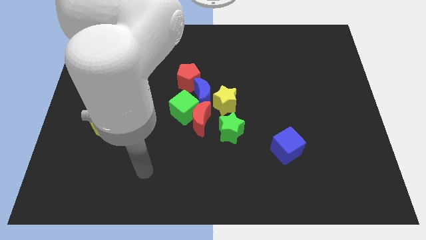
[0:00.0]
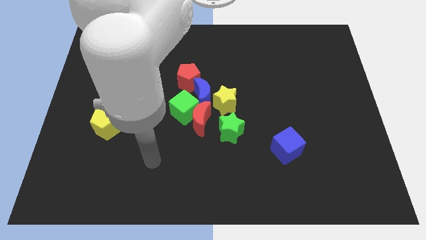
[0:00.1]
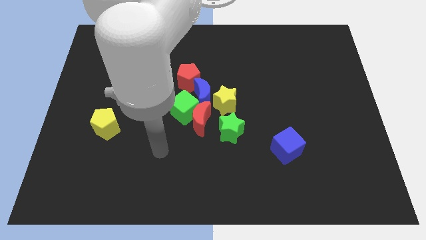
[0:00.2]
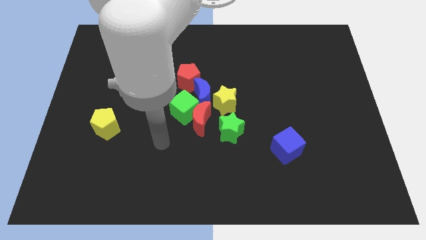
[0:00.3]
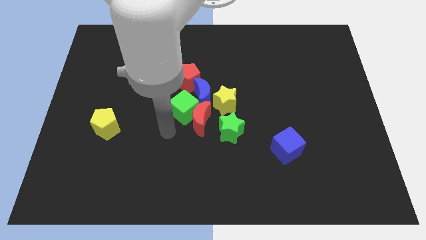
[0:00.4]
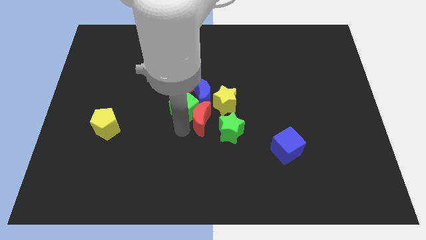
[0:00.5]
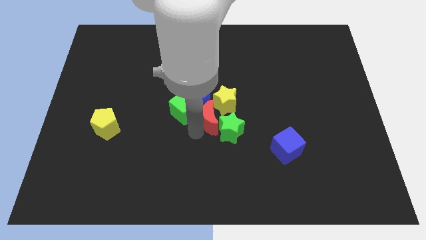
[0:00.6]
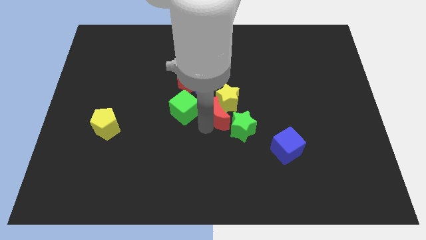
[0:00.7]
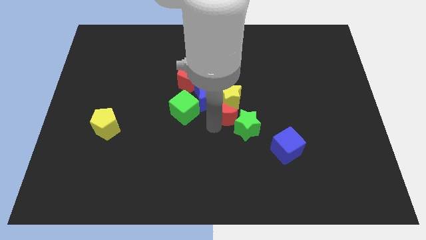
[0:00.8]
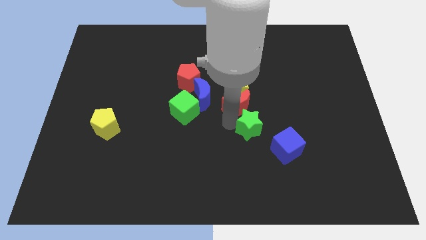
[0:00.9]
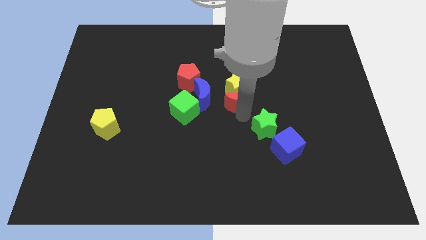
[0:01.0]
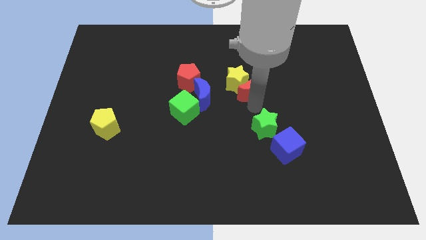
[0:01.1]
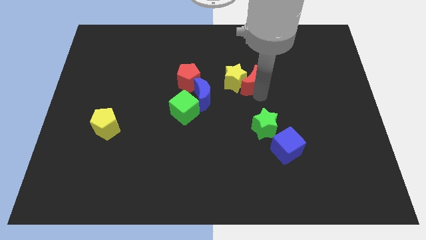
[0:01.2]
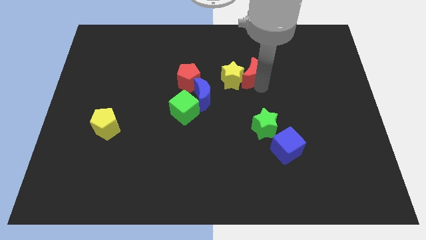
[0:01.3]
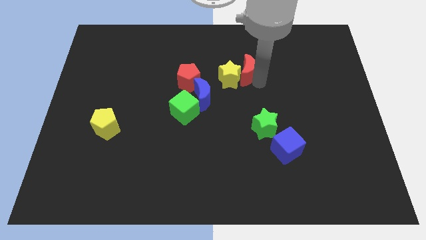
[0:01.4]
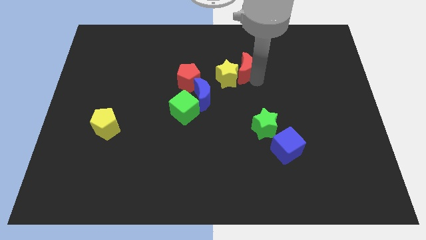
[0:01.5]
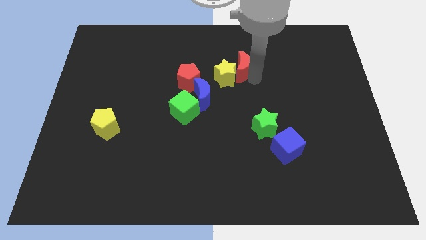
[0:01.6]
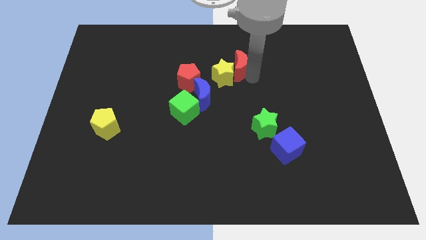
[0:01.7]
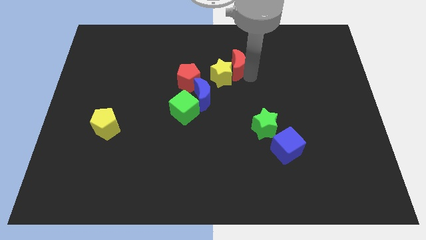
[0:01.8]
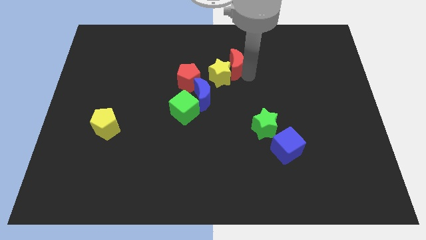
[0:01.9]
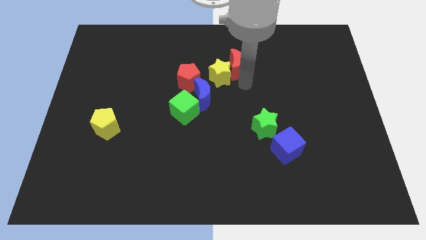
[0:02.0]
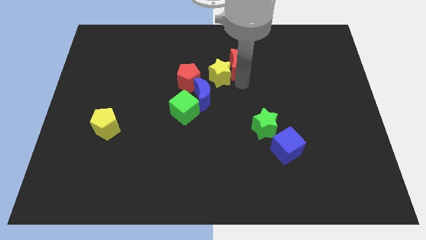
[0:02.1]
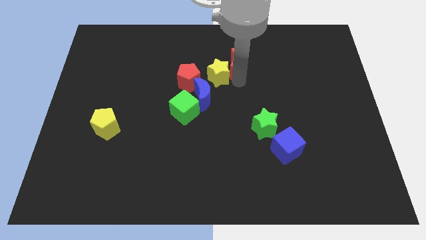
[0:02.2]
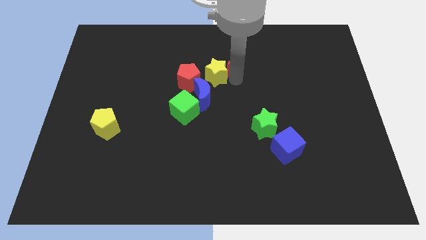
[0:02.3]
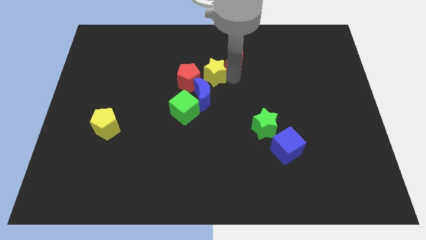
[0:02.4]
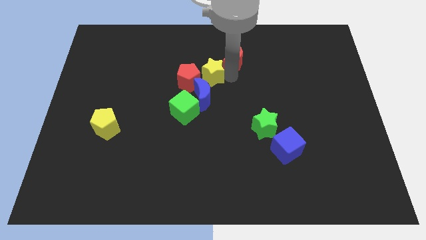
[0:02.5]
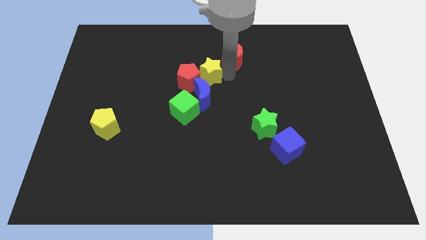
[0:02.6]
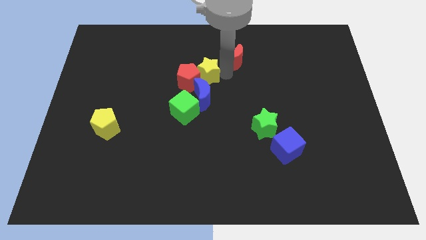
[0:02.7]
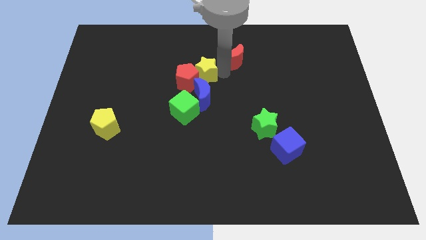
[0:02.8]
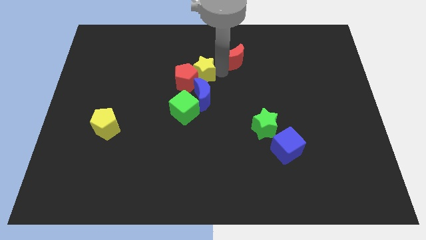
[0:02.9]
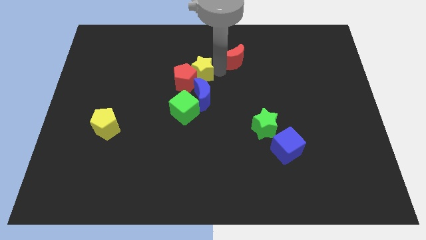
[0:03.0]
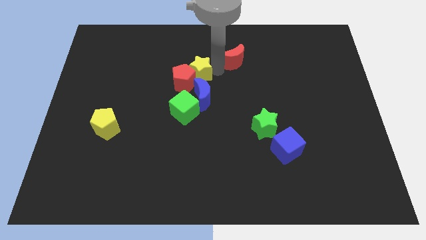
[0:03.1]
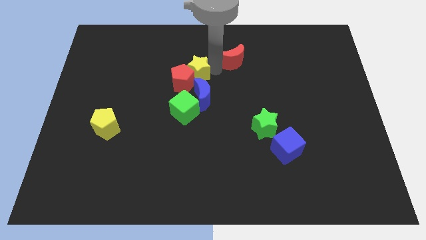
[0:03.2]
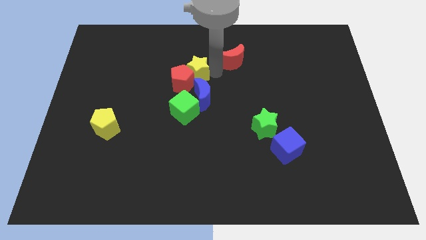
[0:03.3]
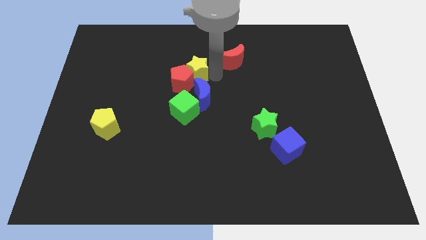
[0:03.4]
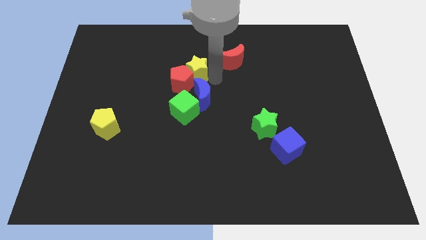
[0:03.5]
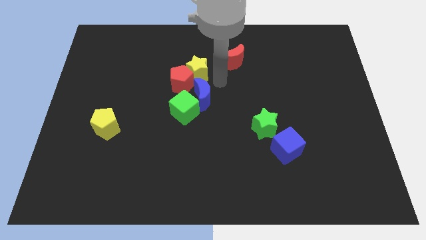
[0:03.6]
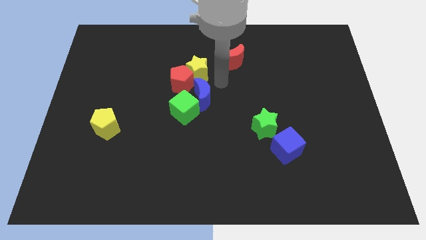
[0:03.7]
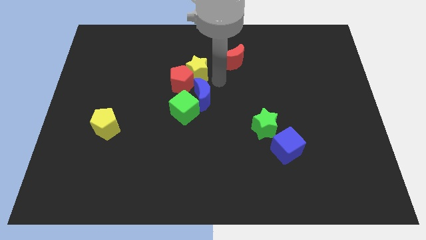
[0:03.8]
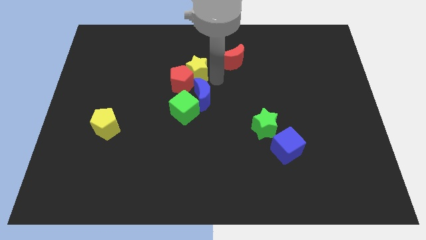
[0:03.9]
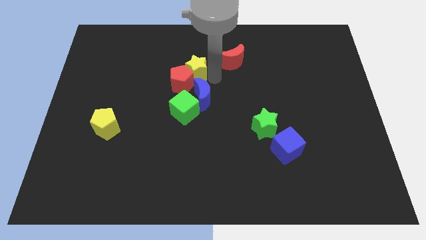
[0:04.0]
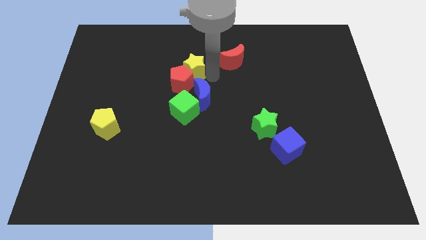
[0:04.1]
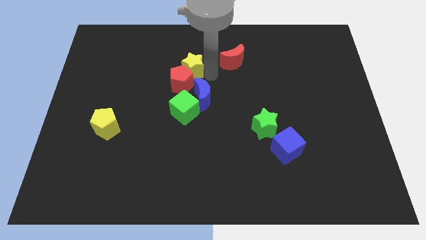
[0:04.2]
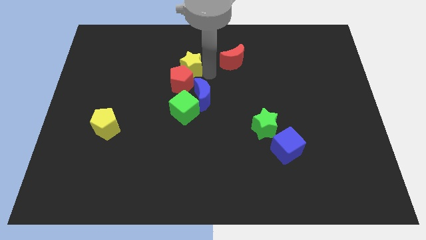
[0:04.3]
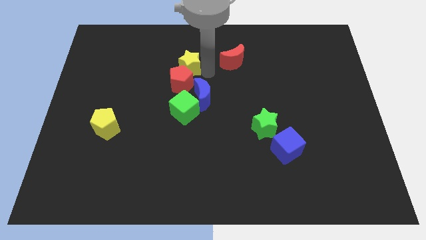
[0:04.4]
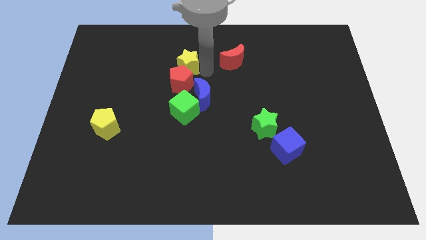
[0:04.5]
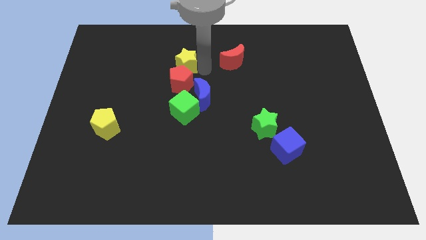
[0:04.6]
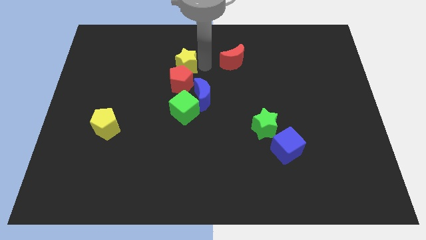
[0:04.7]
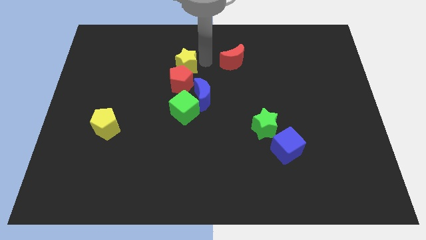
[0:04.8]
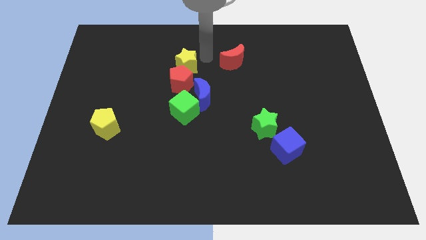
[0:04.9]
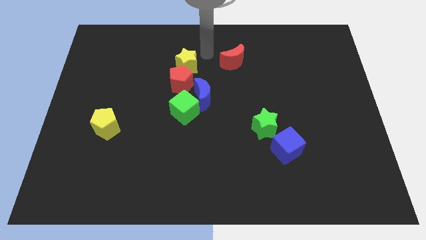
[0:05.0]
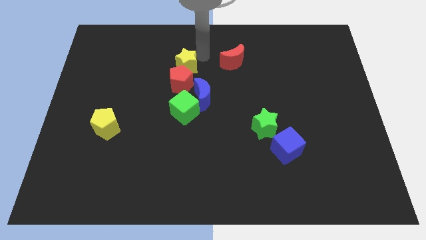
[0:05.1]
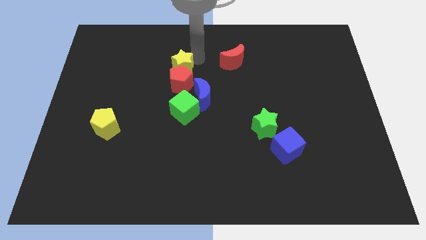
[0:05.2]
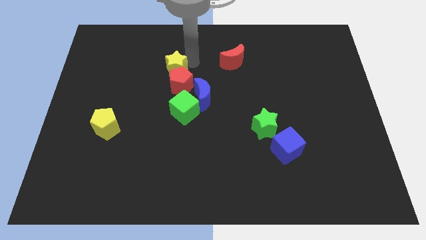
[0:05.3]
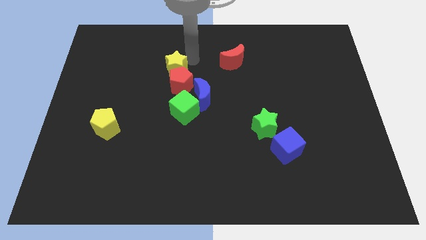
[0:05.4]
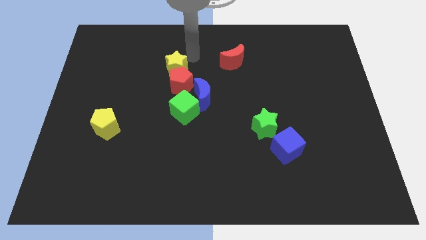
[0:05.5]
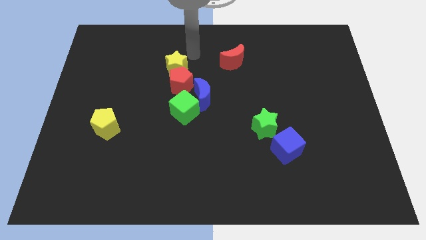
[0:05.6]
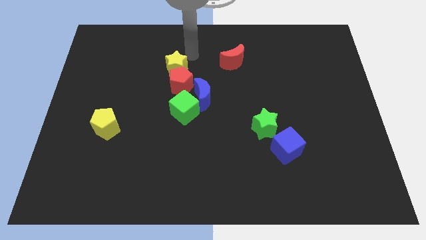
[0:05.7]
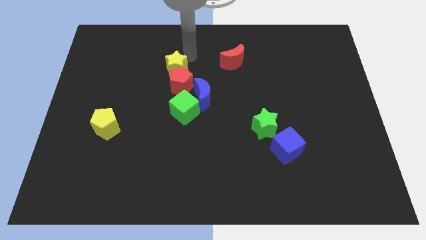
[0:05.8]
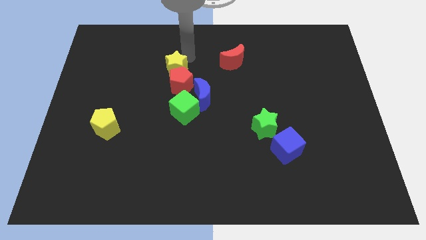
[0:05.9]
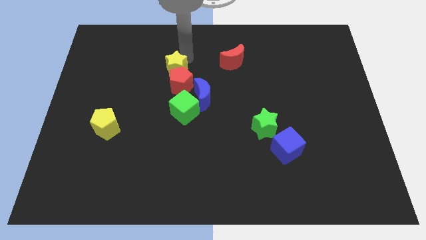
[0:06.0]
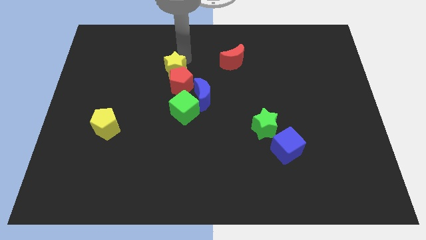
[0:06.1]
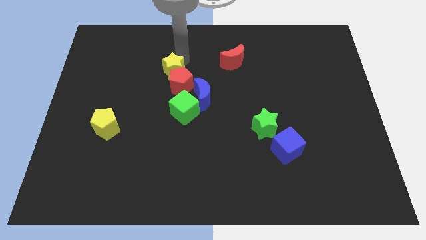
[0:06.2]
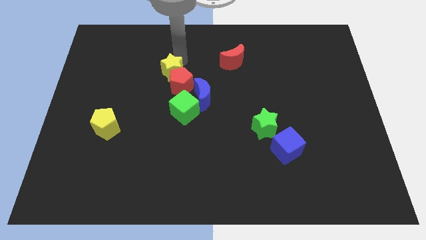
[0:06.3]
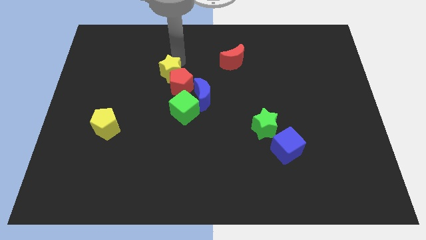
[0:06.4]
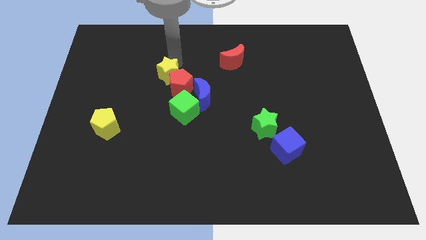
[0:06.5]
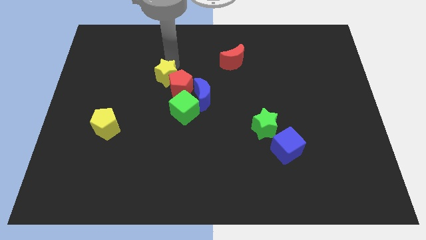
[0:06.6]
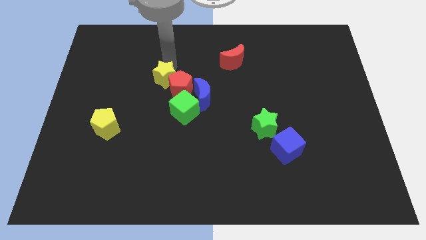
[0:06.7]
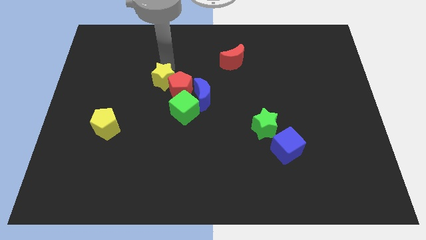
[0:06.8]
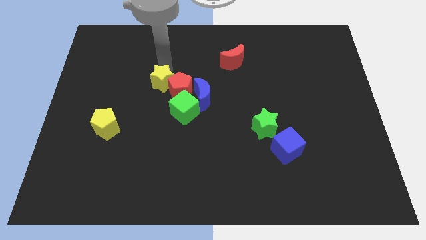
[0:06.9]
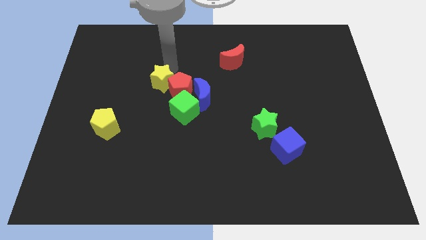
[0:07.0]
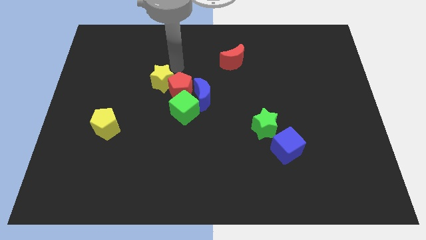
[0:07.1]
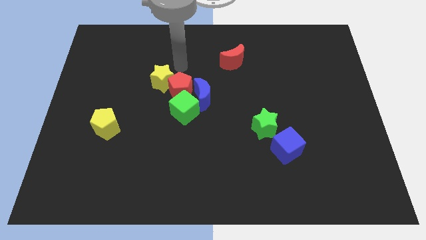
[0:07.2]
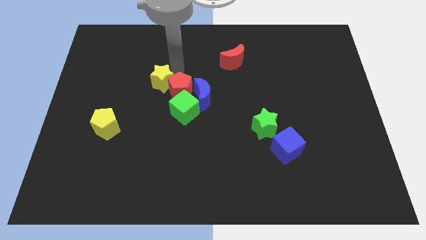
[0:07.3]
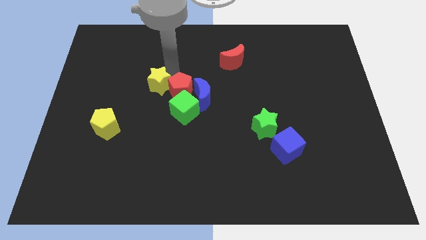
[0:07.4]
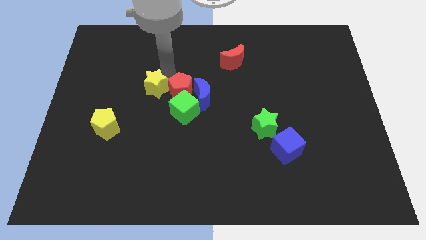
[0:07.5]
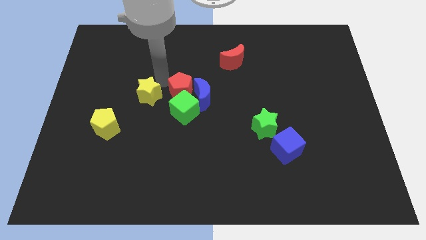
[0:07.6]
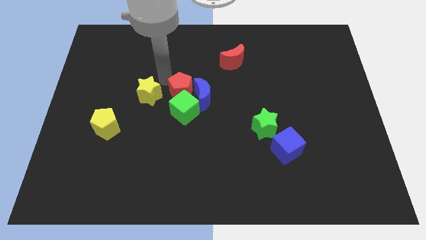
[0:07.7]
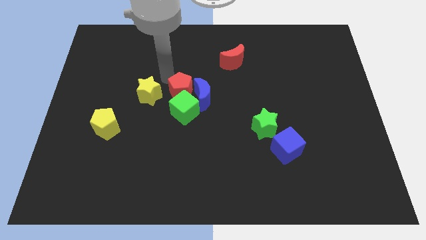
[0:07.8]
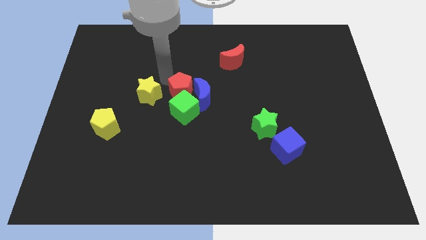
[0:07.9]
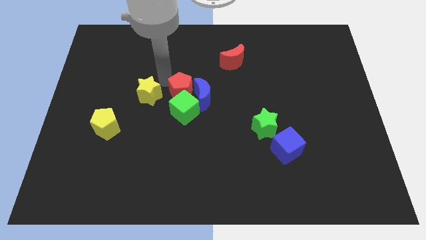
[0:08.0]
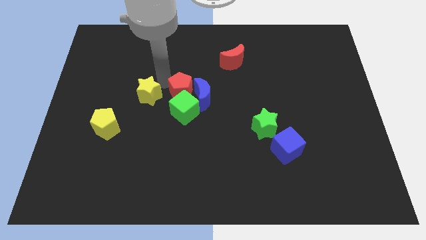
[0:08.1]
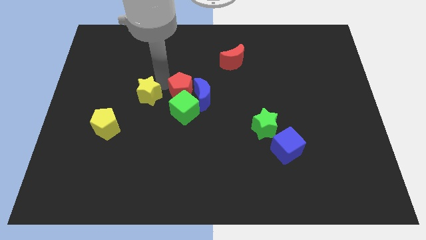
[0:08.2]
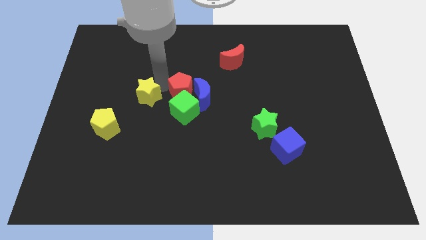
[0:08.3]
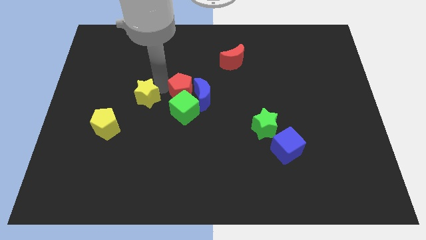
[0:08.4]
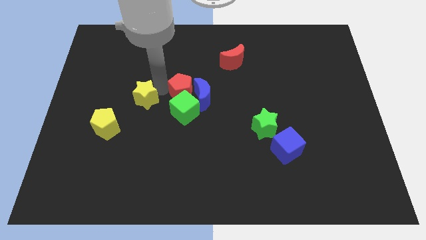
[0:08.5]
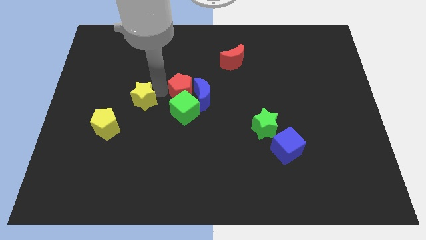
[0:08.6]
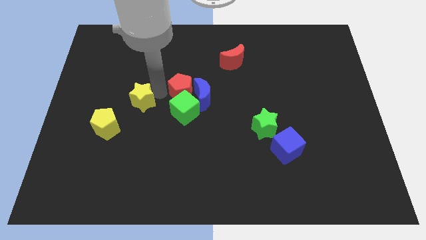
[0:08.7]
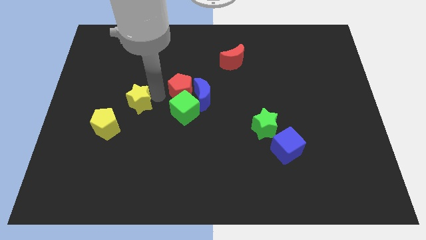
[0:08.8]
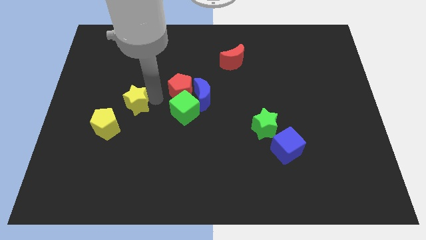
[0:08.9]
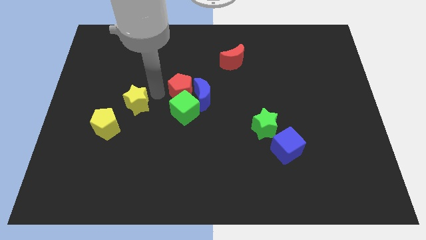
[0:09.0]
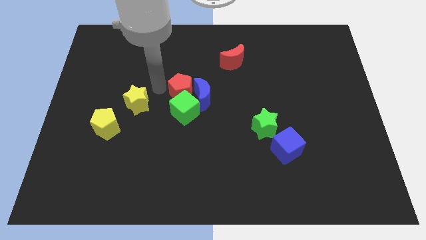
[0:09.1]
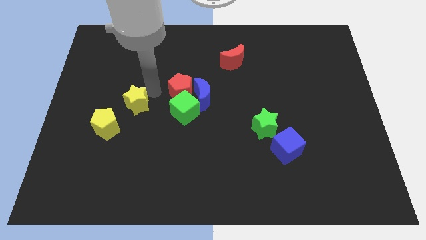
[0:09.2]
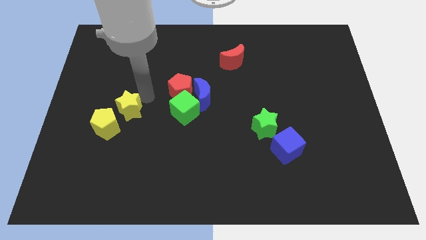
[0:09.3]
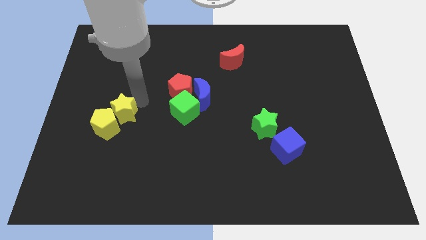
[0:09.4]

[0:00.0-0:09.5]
slide the yellow star close to the yellow pentagon
